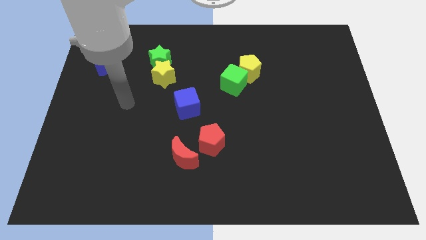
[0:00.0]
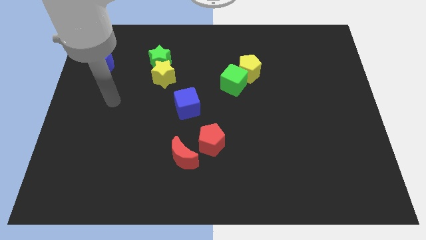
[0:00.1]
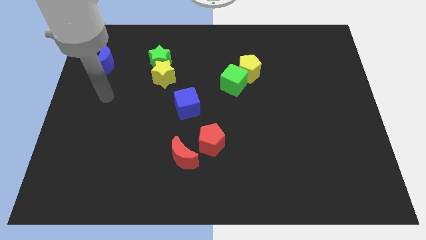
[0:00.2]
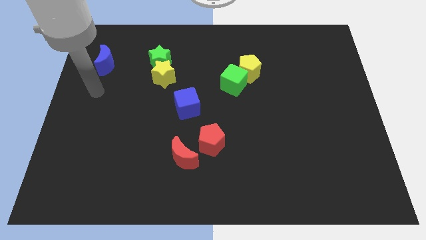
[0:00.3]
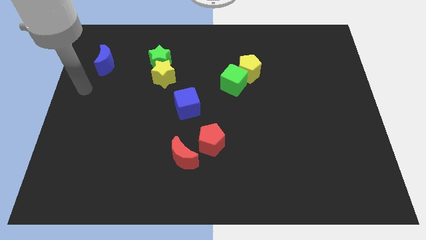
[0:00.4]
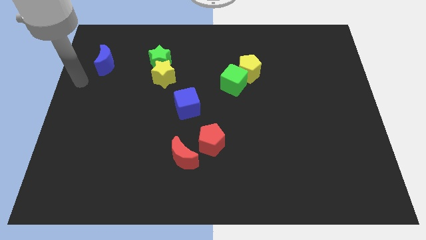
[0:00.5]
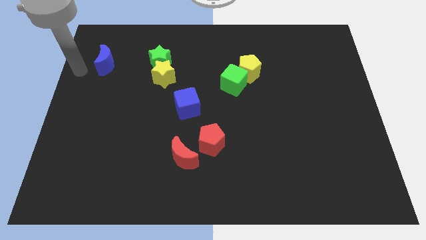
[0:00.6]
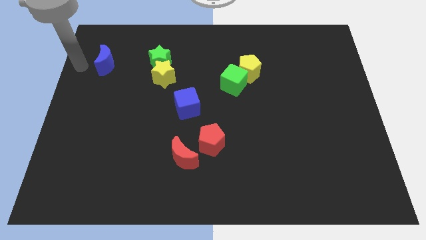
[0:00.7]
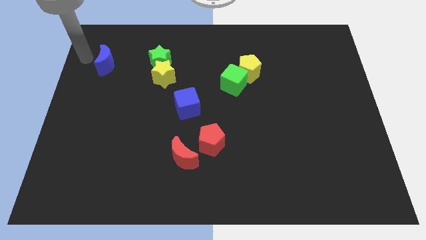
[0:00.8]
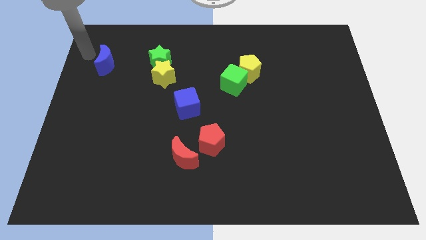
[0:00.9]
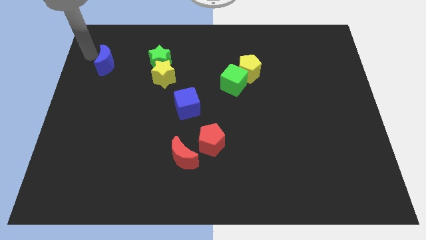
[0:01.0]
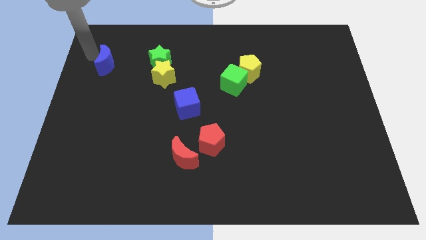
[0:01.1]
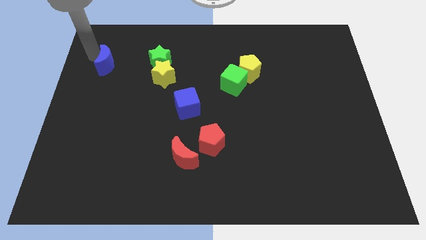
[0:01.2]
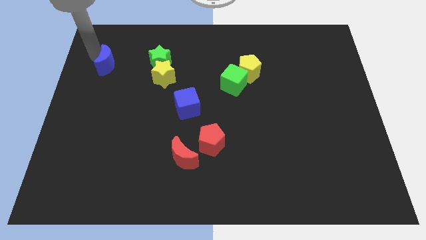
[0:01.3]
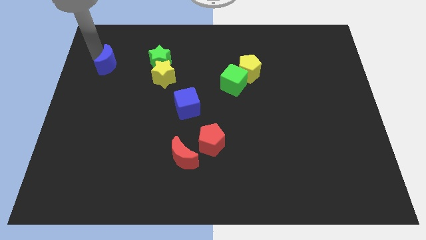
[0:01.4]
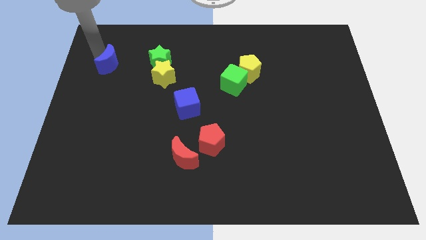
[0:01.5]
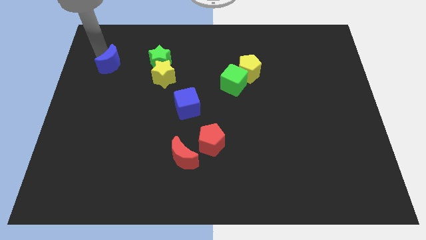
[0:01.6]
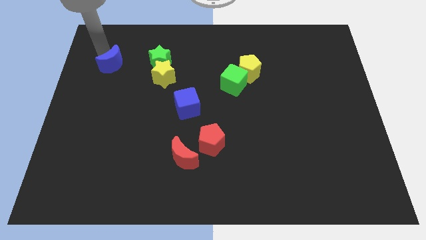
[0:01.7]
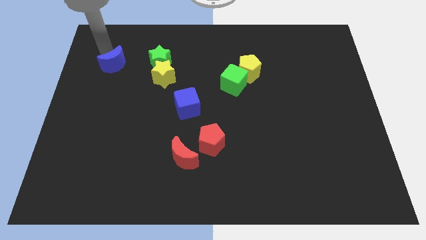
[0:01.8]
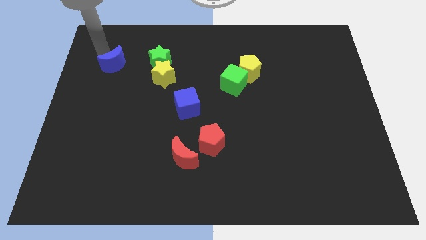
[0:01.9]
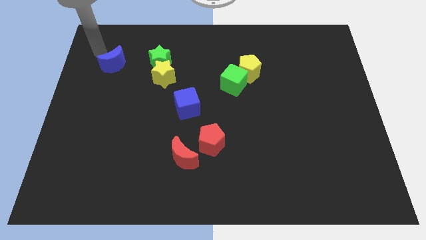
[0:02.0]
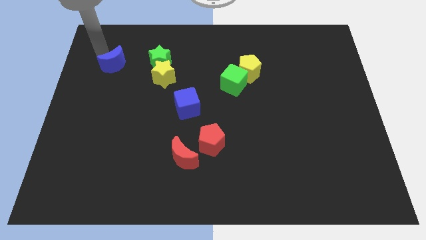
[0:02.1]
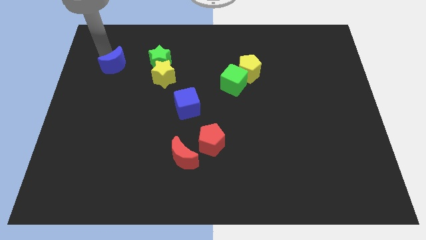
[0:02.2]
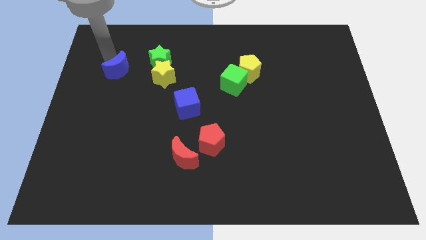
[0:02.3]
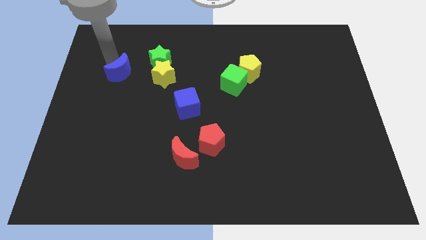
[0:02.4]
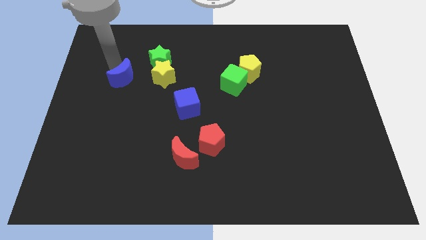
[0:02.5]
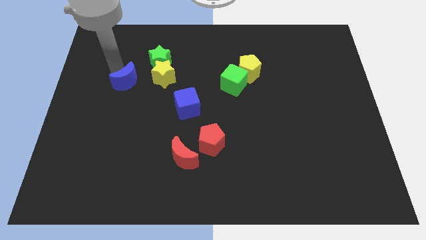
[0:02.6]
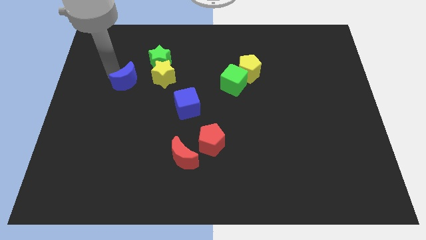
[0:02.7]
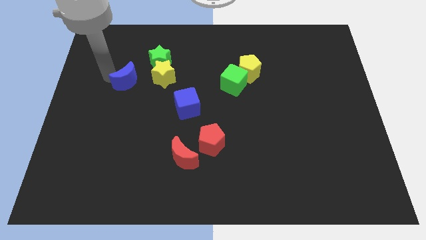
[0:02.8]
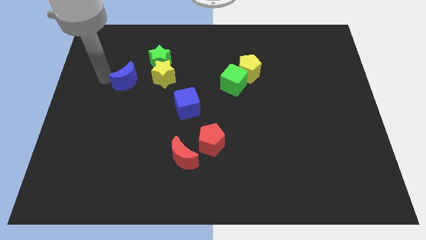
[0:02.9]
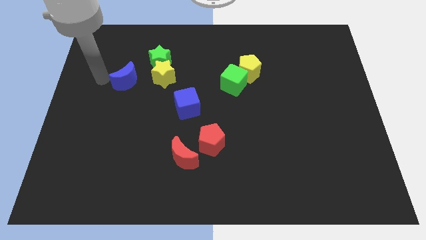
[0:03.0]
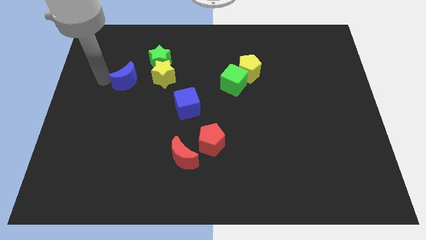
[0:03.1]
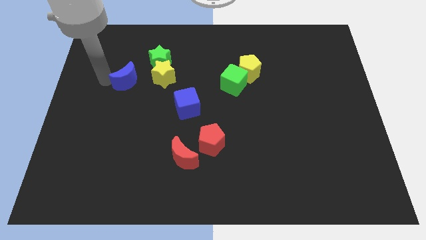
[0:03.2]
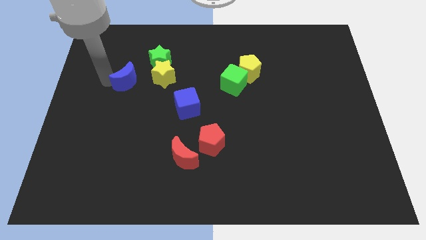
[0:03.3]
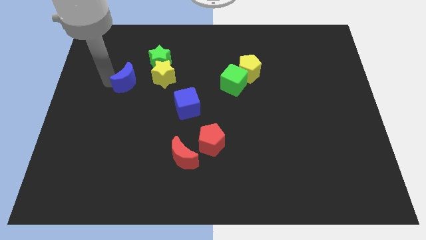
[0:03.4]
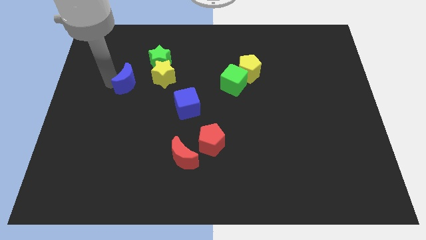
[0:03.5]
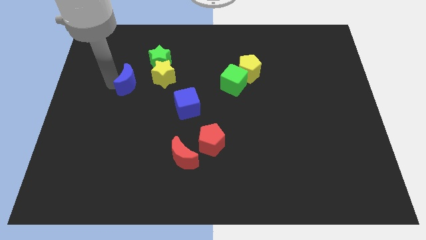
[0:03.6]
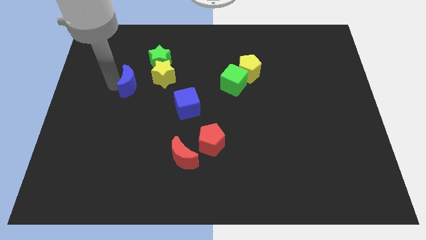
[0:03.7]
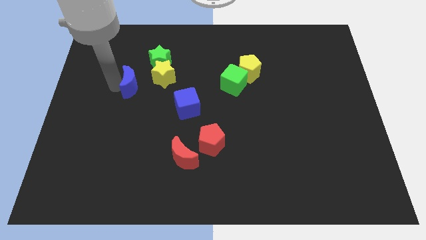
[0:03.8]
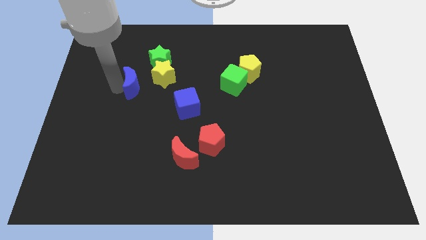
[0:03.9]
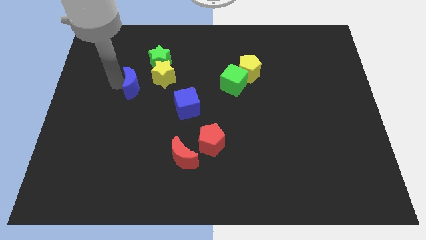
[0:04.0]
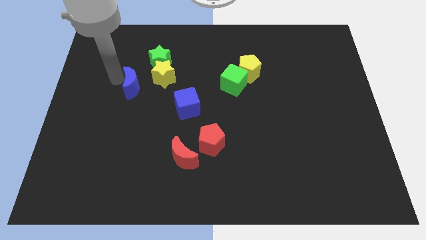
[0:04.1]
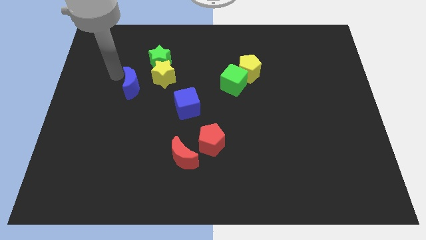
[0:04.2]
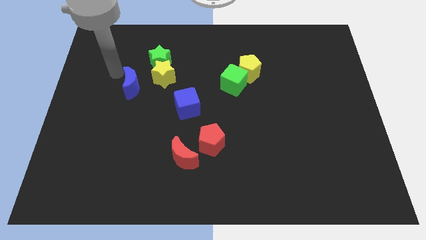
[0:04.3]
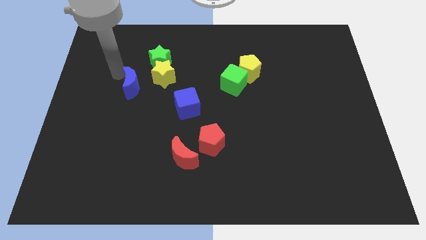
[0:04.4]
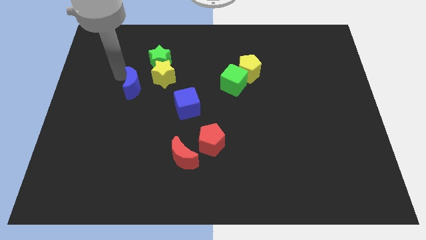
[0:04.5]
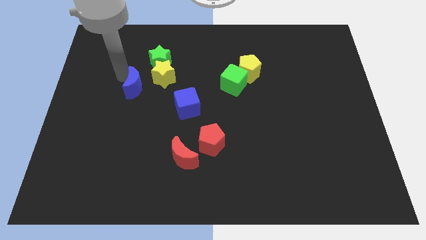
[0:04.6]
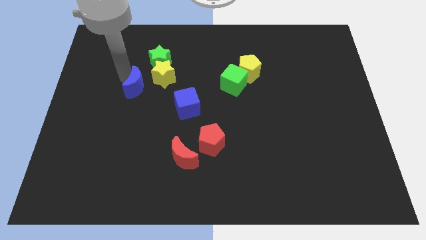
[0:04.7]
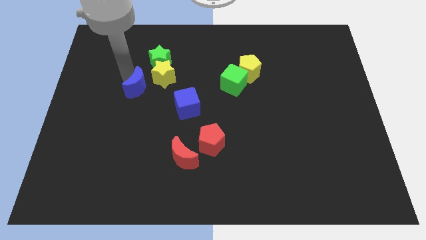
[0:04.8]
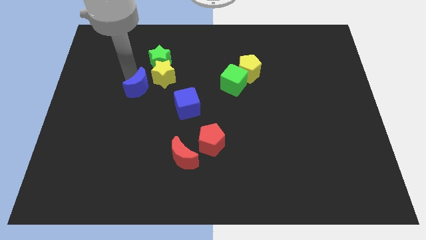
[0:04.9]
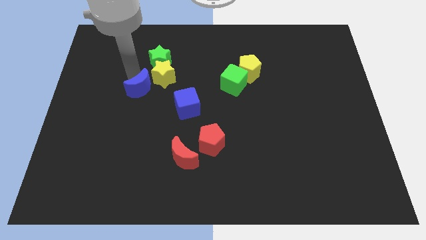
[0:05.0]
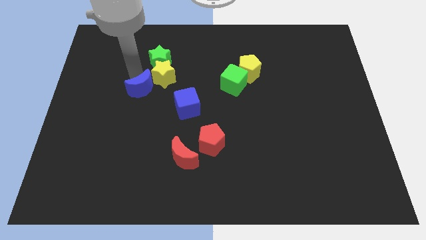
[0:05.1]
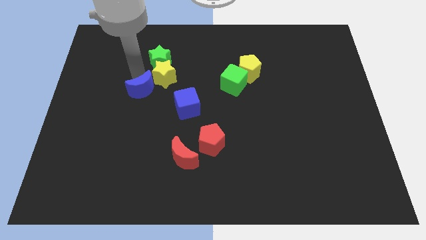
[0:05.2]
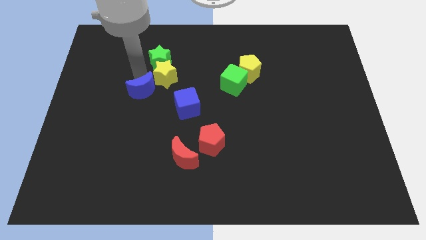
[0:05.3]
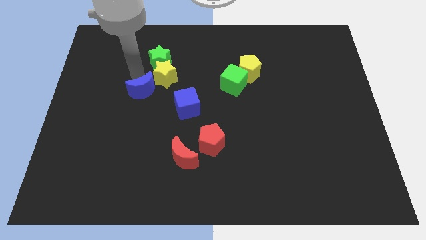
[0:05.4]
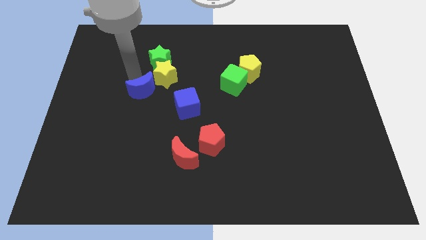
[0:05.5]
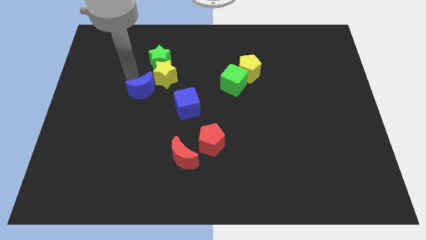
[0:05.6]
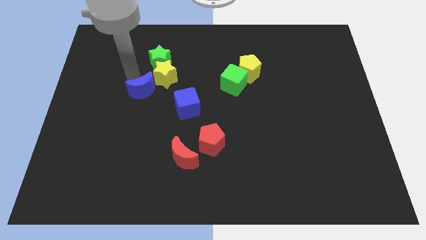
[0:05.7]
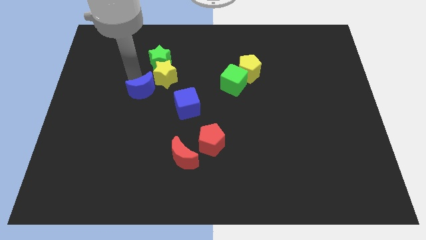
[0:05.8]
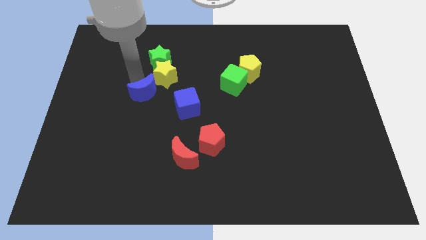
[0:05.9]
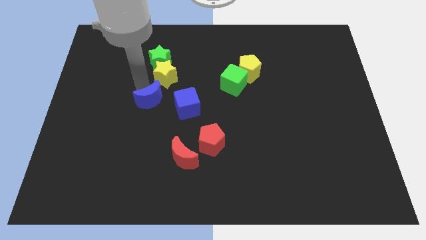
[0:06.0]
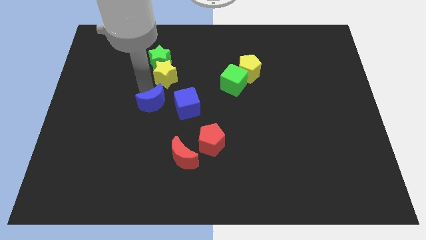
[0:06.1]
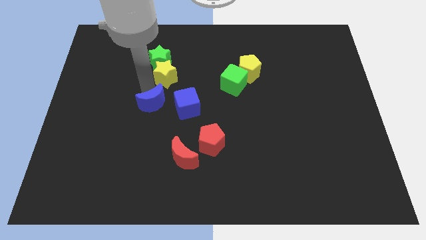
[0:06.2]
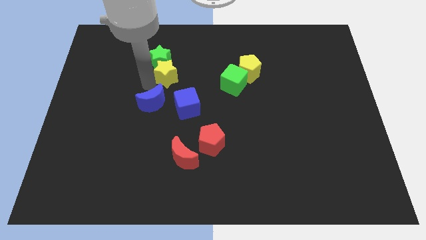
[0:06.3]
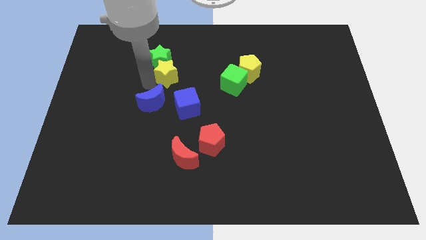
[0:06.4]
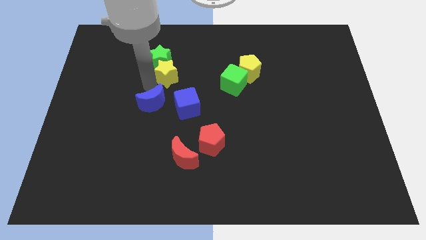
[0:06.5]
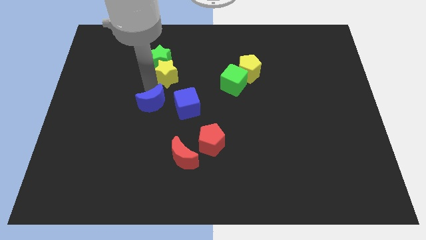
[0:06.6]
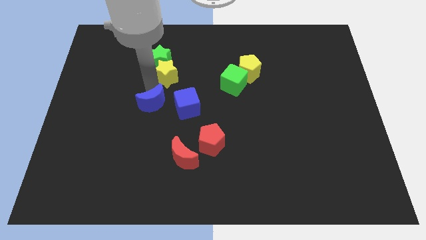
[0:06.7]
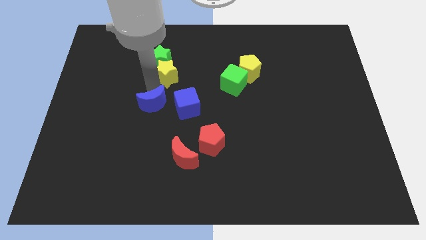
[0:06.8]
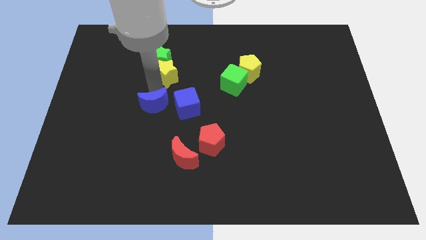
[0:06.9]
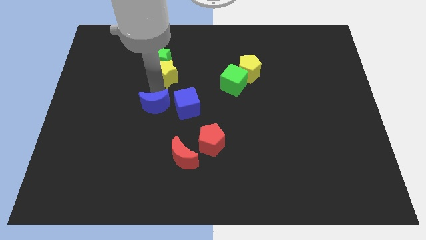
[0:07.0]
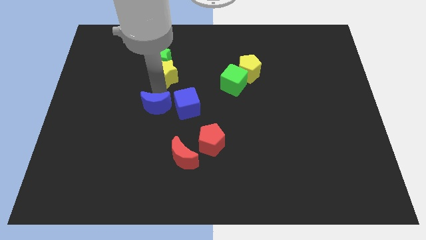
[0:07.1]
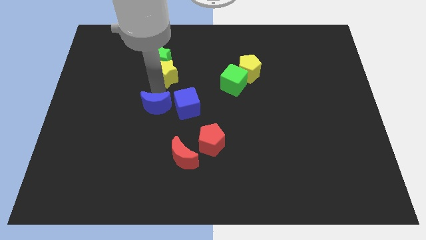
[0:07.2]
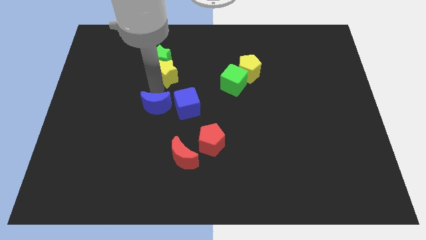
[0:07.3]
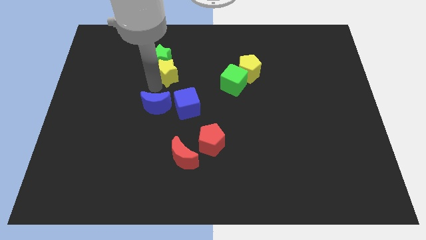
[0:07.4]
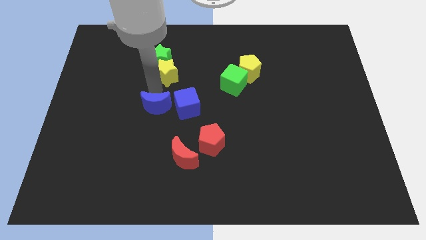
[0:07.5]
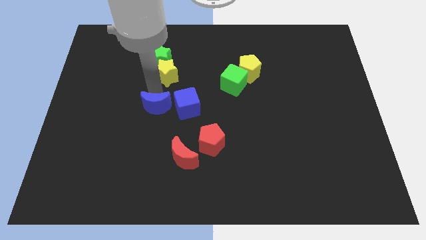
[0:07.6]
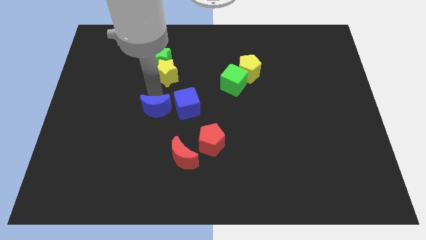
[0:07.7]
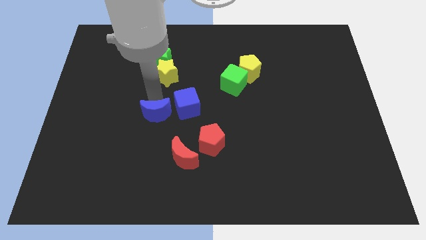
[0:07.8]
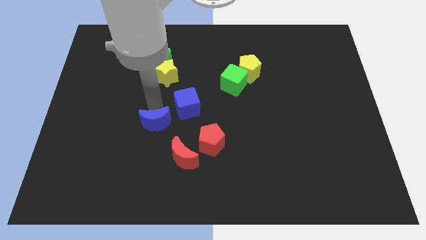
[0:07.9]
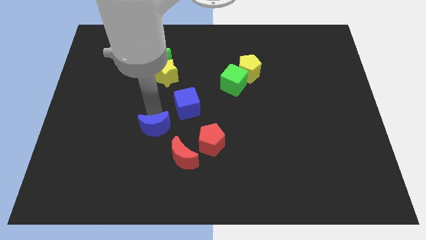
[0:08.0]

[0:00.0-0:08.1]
push the blue moon to the left side of the red pentagon
